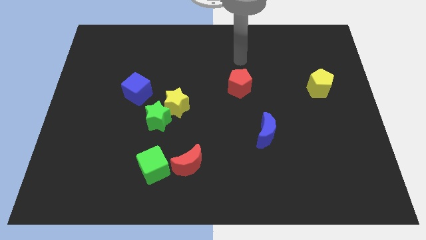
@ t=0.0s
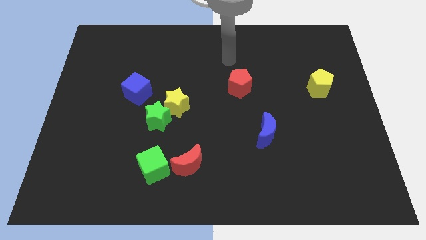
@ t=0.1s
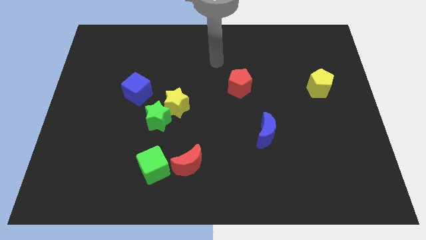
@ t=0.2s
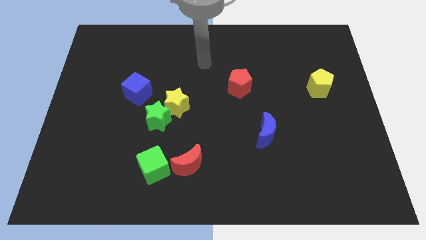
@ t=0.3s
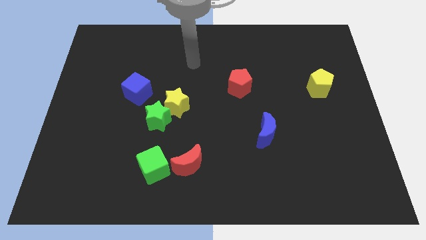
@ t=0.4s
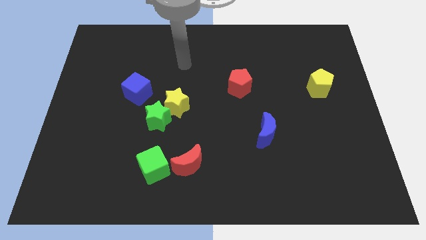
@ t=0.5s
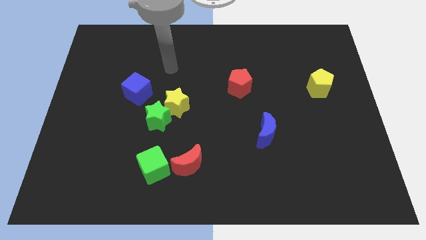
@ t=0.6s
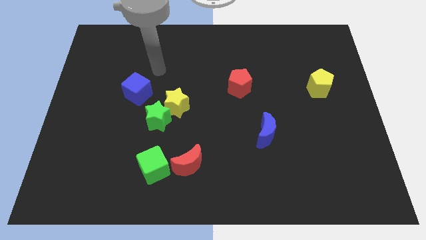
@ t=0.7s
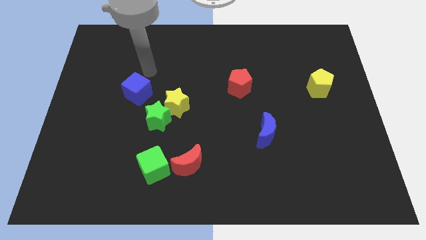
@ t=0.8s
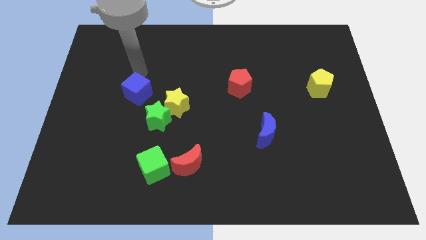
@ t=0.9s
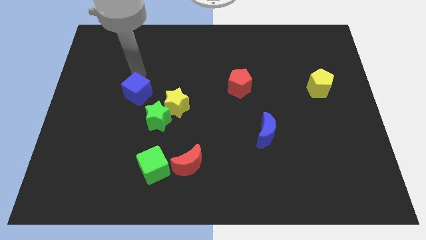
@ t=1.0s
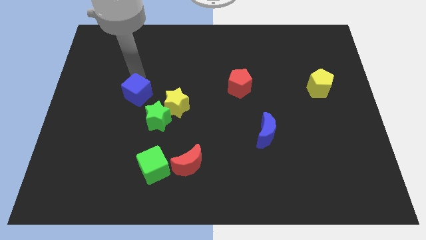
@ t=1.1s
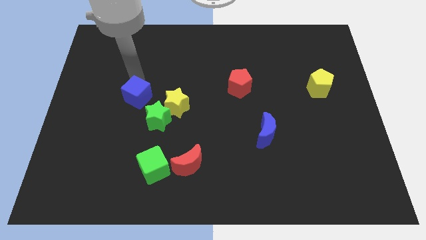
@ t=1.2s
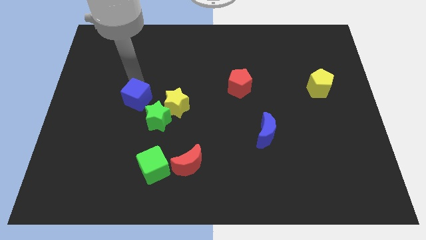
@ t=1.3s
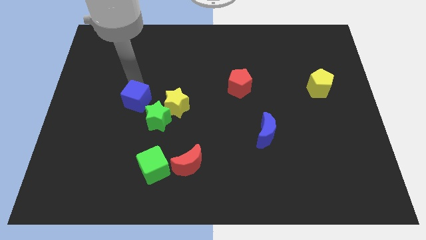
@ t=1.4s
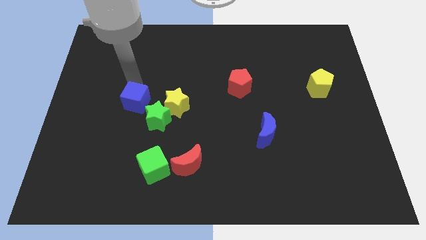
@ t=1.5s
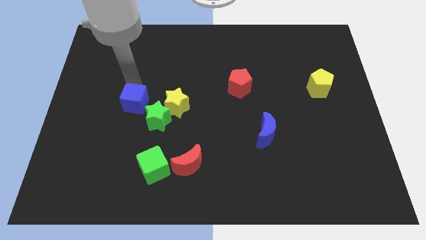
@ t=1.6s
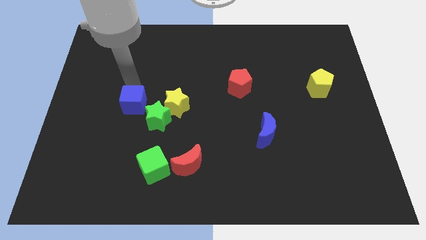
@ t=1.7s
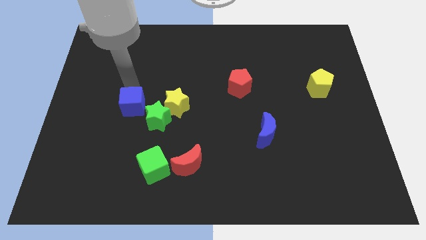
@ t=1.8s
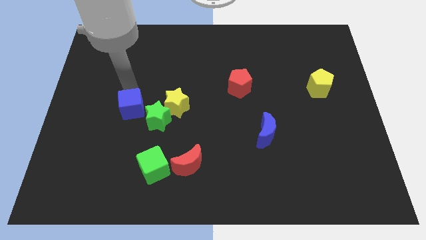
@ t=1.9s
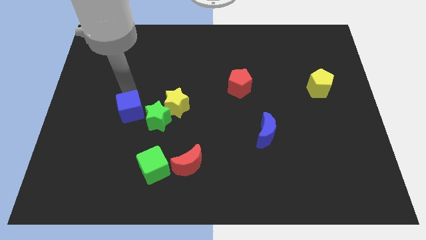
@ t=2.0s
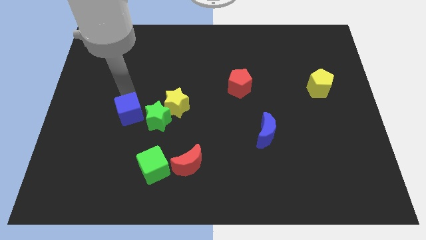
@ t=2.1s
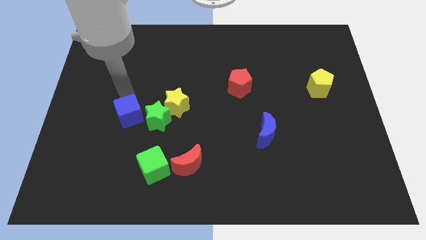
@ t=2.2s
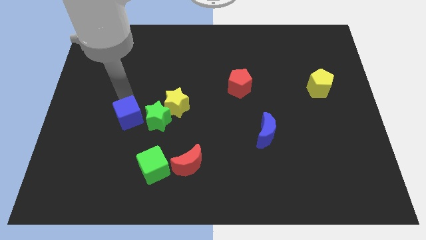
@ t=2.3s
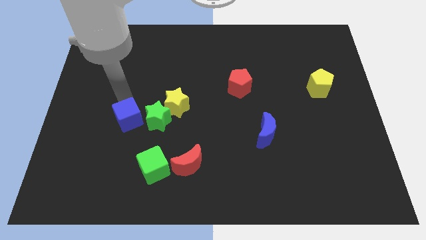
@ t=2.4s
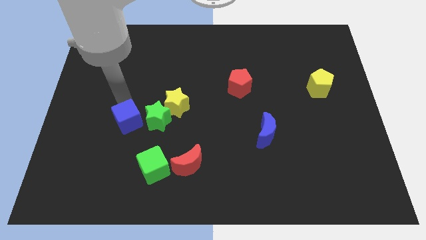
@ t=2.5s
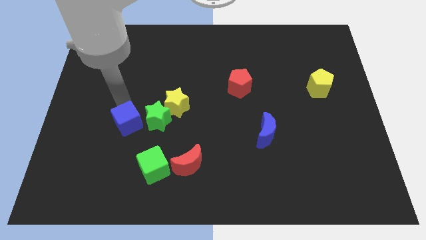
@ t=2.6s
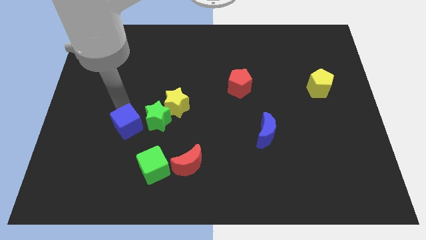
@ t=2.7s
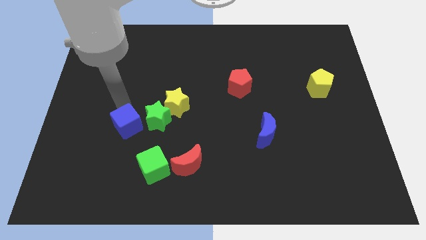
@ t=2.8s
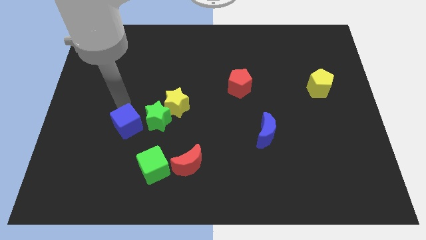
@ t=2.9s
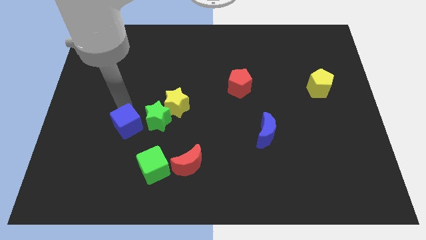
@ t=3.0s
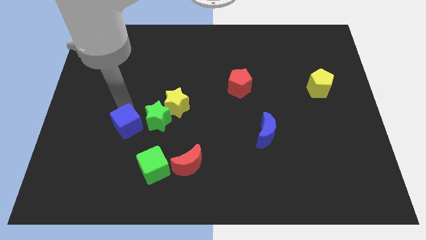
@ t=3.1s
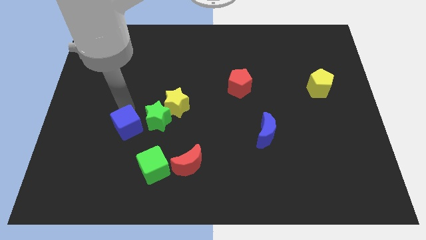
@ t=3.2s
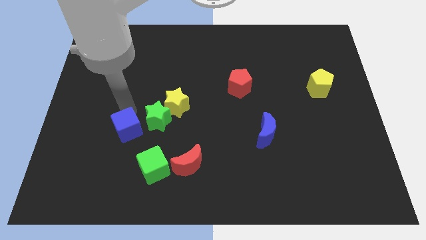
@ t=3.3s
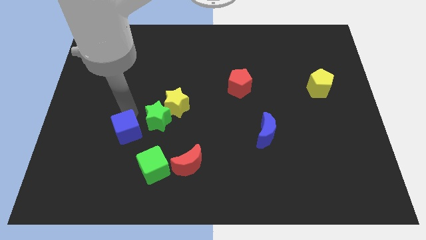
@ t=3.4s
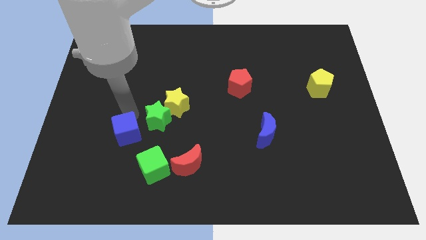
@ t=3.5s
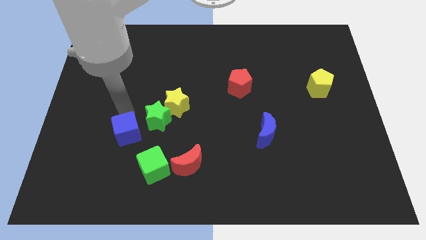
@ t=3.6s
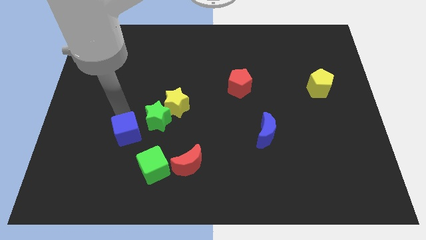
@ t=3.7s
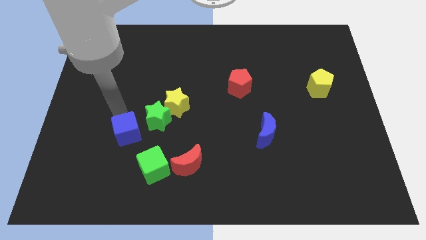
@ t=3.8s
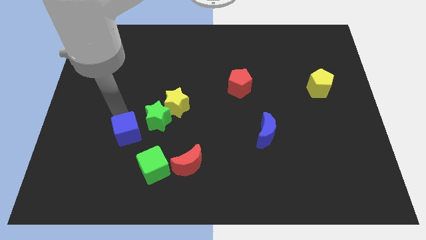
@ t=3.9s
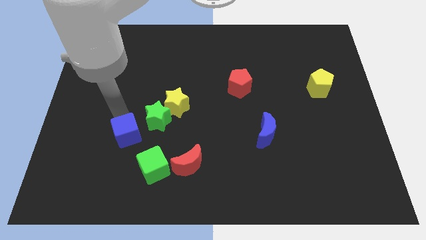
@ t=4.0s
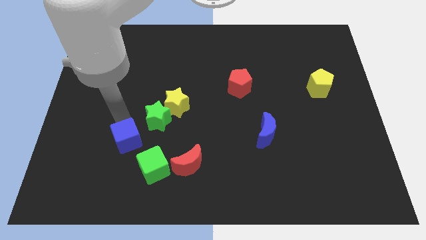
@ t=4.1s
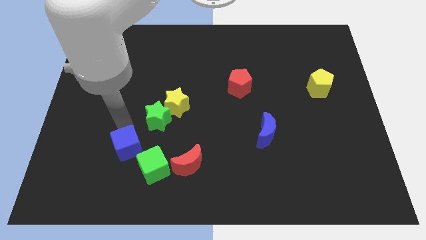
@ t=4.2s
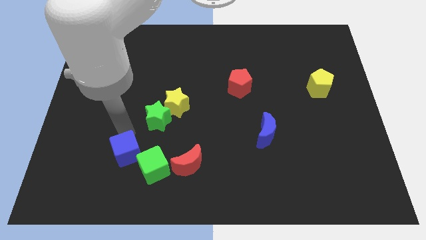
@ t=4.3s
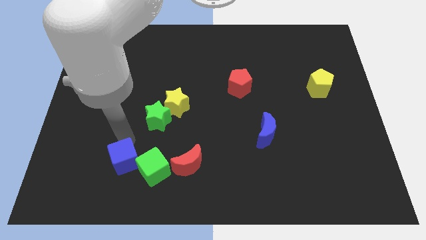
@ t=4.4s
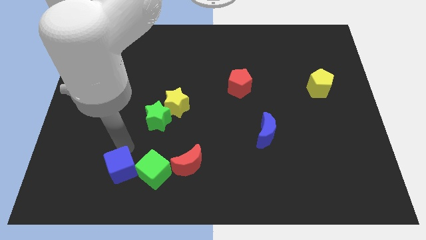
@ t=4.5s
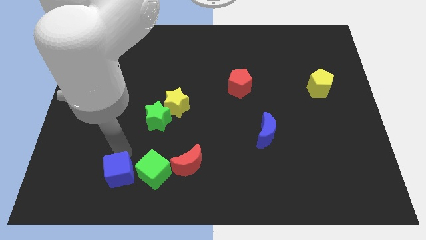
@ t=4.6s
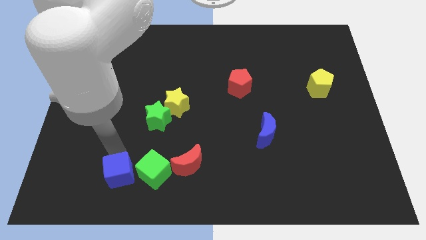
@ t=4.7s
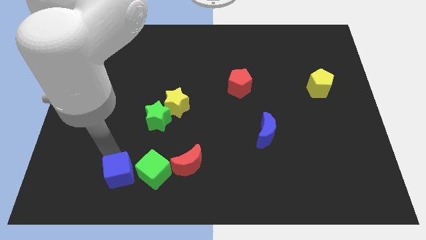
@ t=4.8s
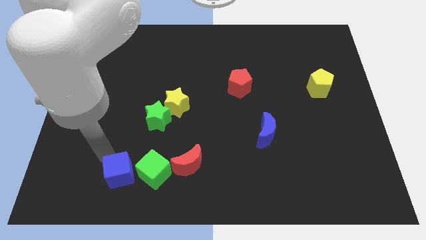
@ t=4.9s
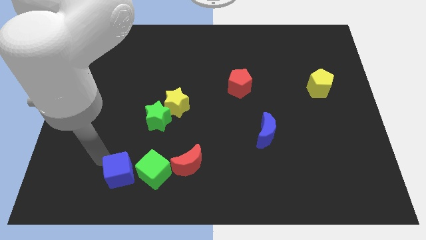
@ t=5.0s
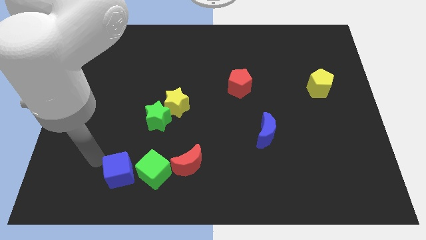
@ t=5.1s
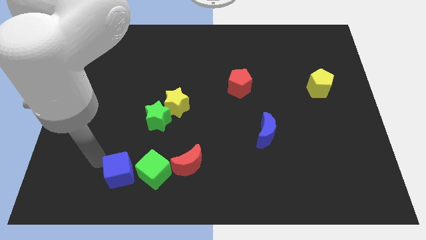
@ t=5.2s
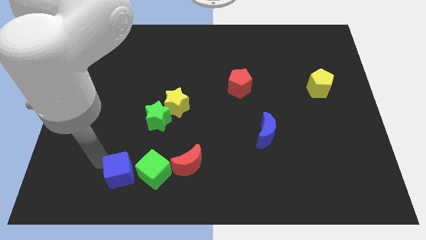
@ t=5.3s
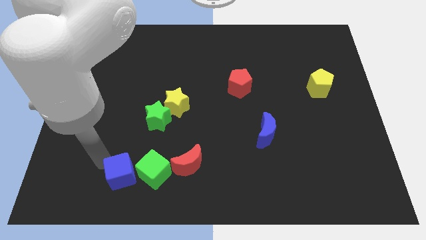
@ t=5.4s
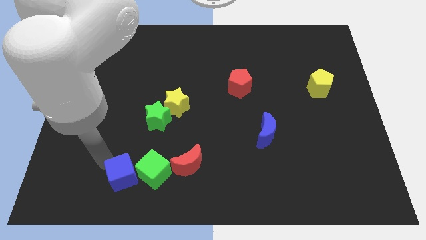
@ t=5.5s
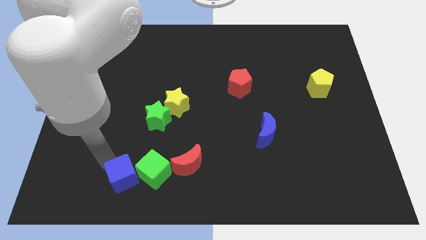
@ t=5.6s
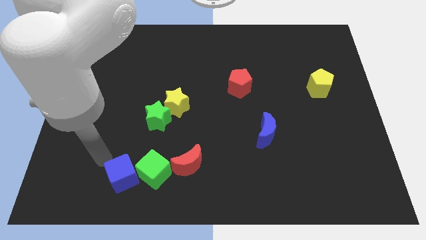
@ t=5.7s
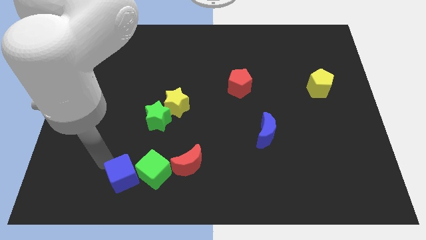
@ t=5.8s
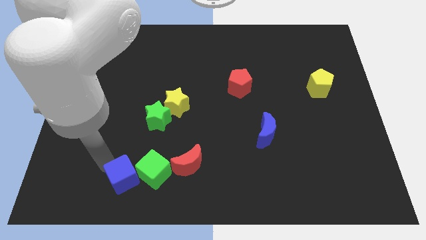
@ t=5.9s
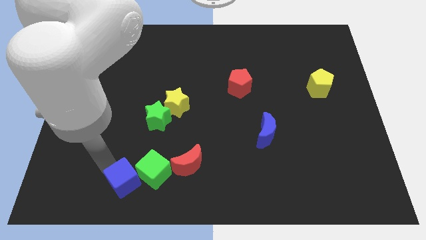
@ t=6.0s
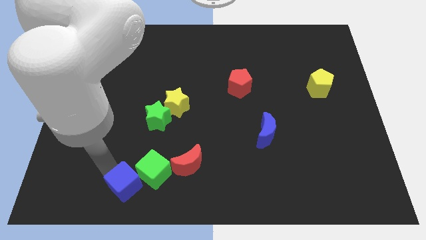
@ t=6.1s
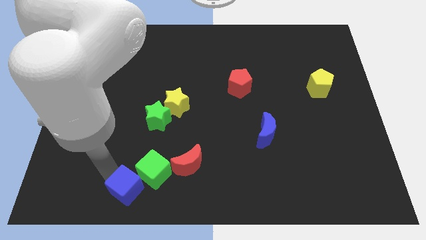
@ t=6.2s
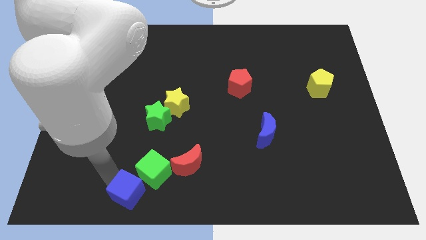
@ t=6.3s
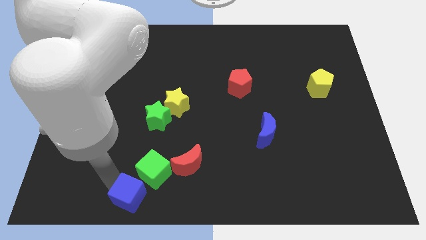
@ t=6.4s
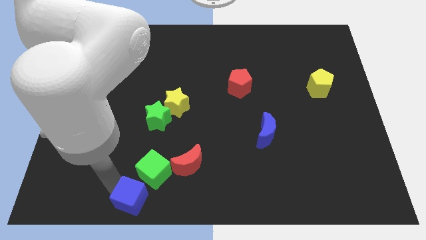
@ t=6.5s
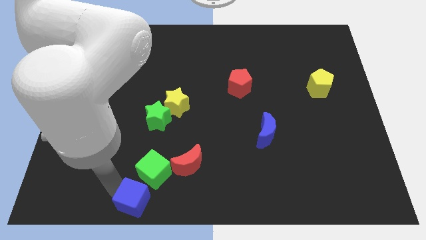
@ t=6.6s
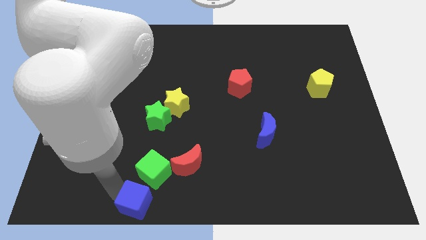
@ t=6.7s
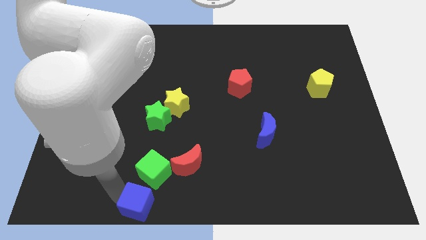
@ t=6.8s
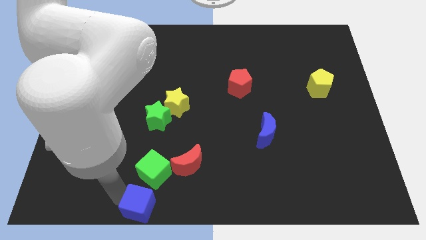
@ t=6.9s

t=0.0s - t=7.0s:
slide the blue cube to the bottom side
